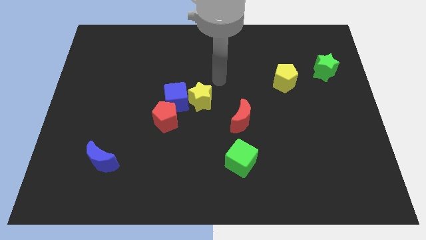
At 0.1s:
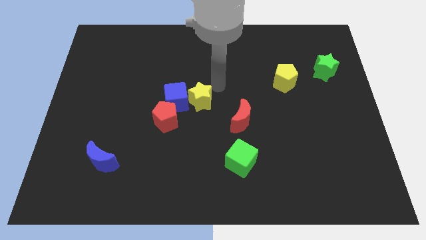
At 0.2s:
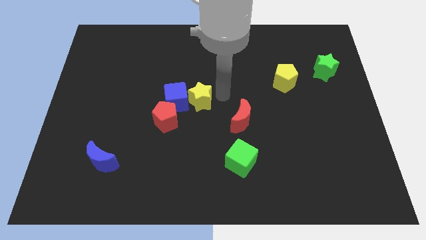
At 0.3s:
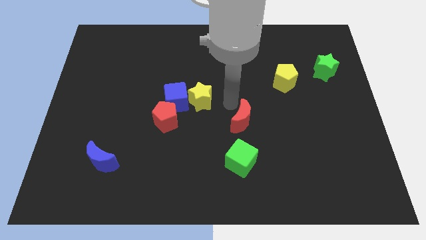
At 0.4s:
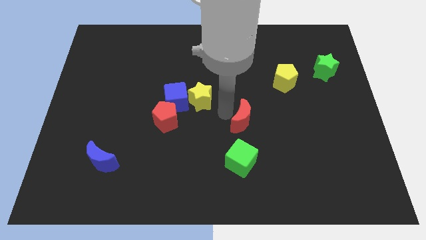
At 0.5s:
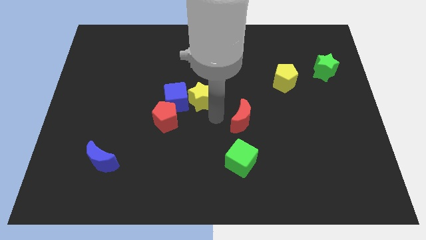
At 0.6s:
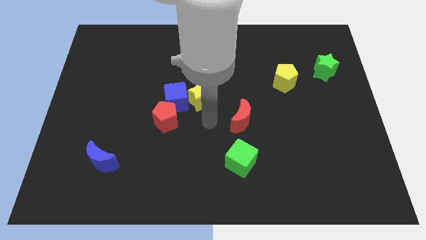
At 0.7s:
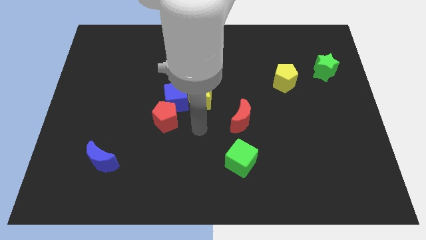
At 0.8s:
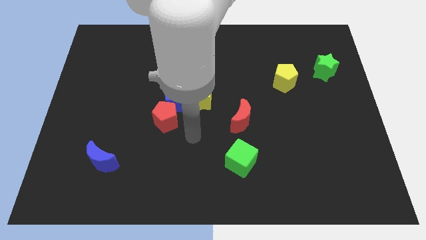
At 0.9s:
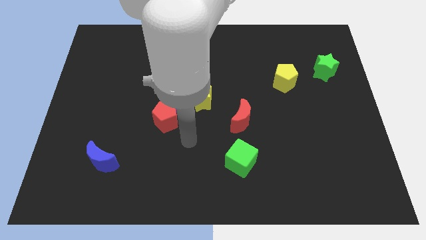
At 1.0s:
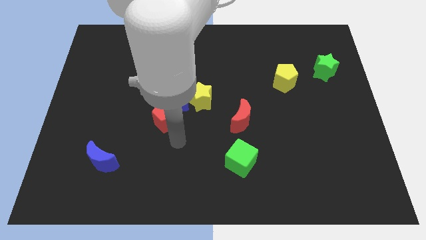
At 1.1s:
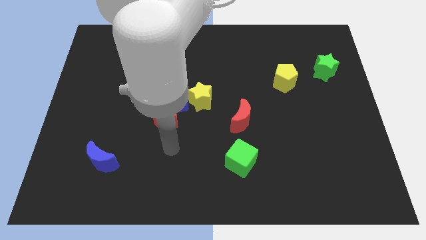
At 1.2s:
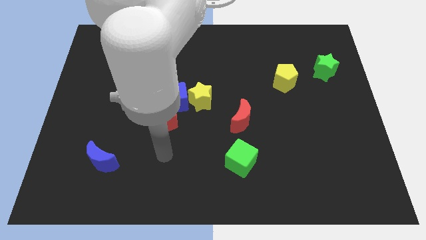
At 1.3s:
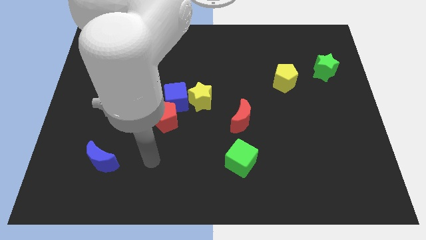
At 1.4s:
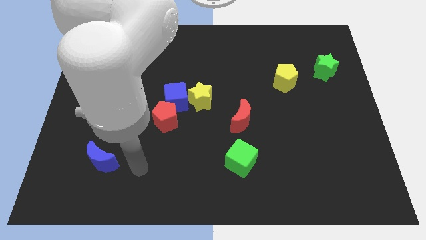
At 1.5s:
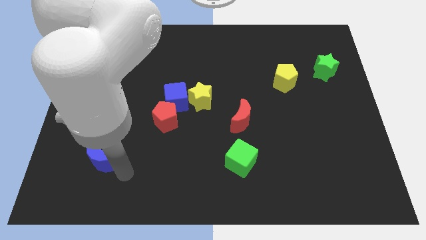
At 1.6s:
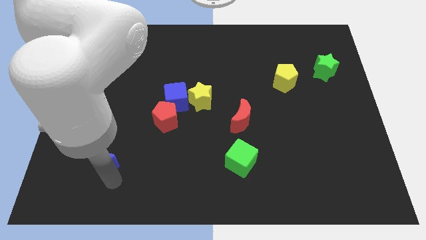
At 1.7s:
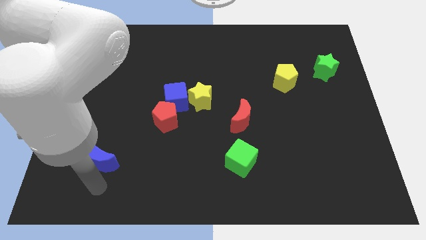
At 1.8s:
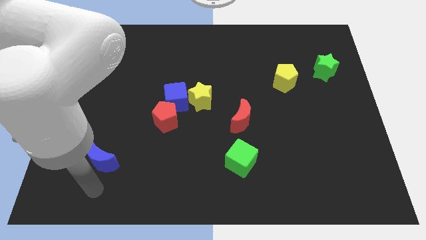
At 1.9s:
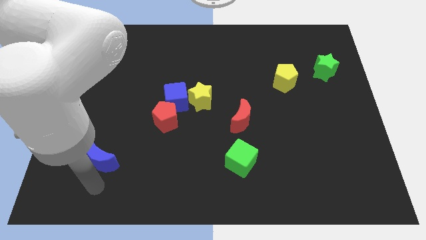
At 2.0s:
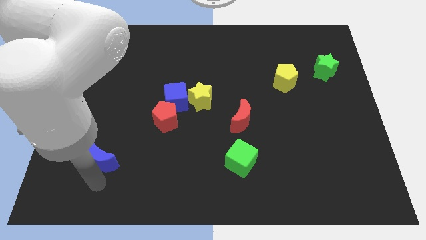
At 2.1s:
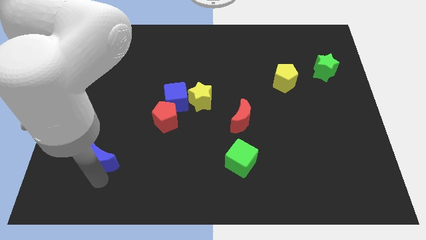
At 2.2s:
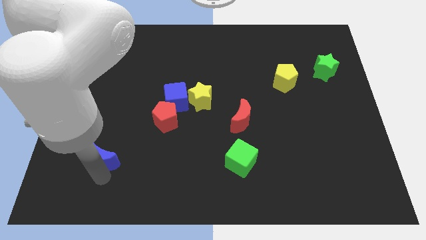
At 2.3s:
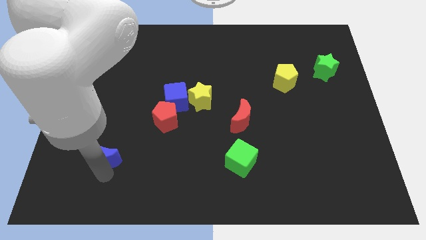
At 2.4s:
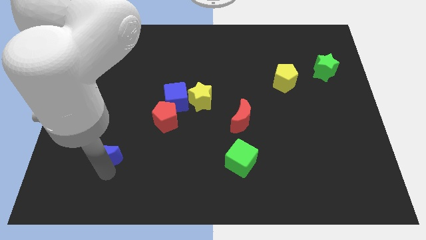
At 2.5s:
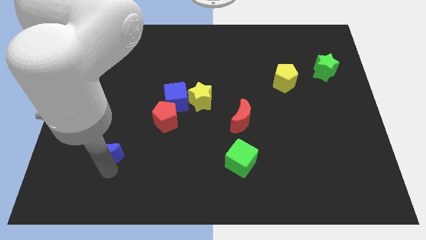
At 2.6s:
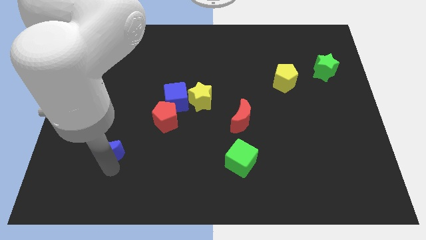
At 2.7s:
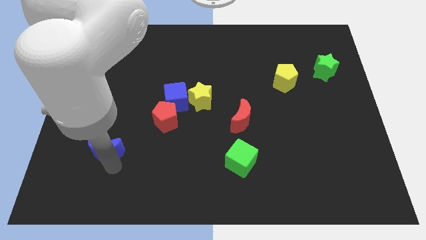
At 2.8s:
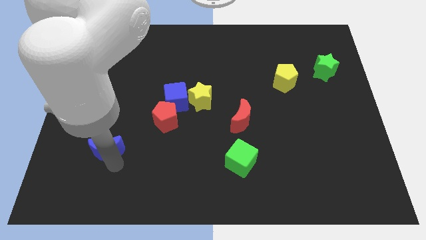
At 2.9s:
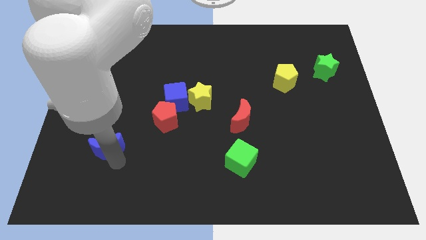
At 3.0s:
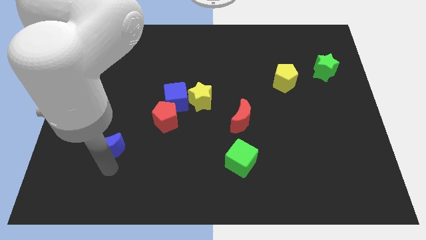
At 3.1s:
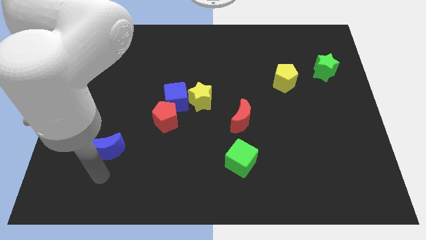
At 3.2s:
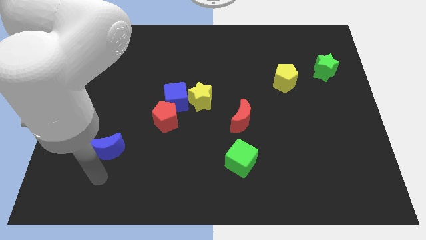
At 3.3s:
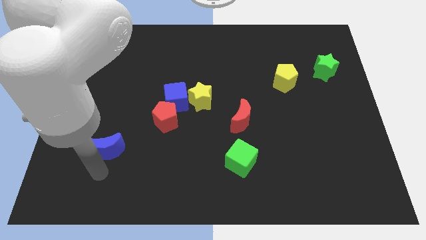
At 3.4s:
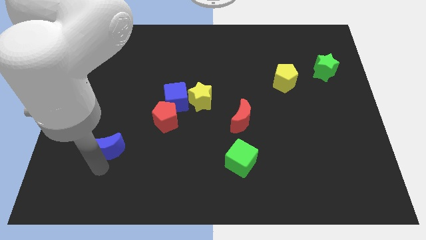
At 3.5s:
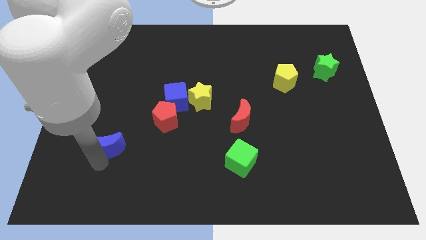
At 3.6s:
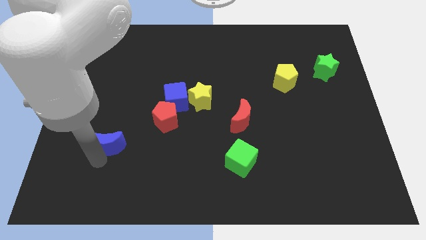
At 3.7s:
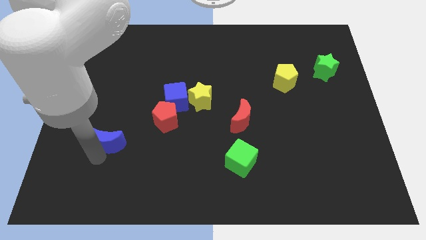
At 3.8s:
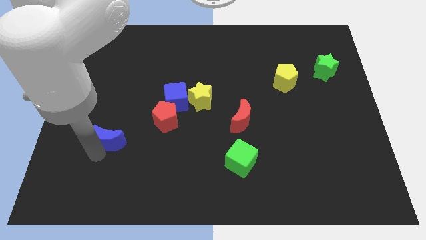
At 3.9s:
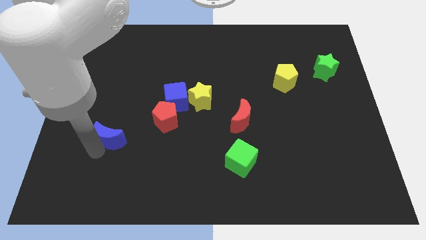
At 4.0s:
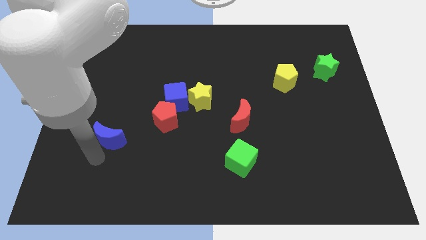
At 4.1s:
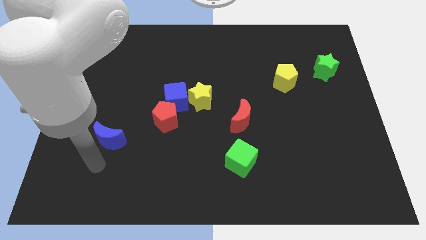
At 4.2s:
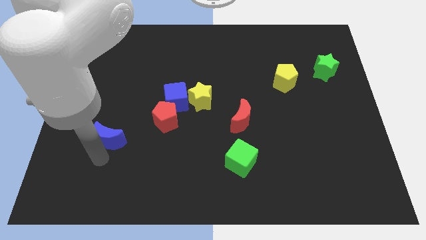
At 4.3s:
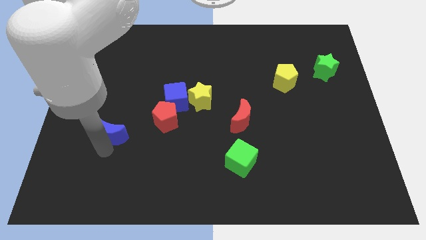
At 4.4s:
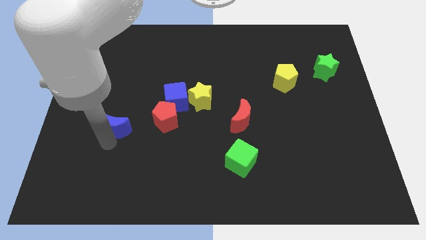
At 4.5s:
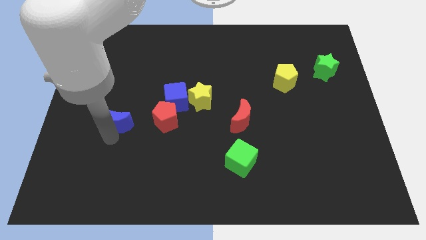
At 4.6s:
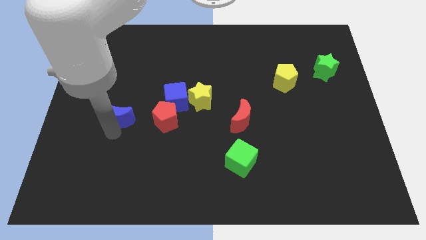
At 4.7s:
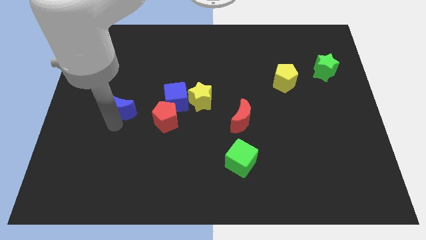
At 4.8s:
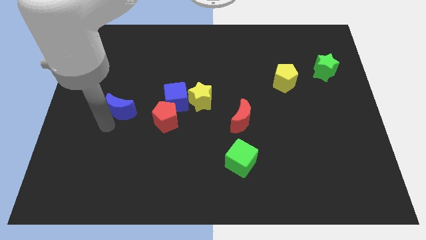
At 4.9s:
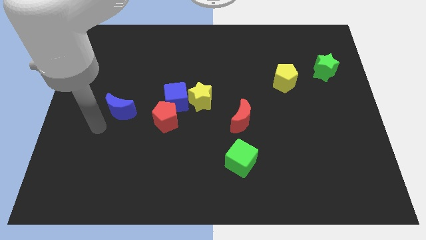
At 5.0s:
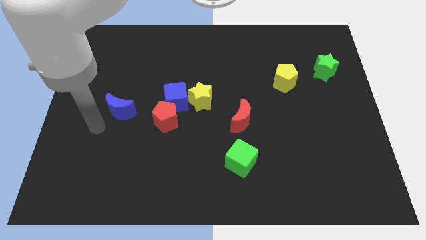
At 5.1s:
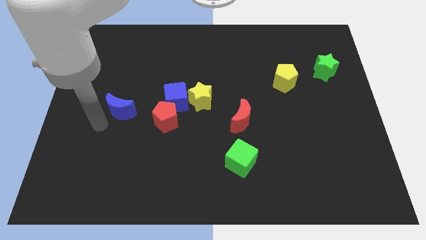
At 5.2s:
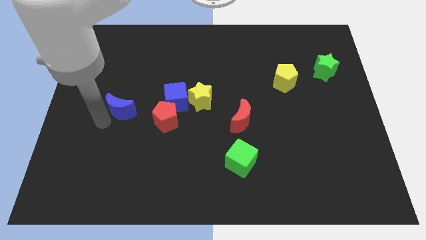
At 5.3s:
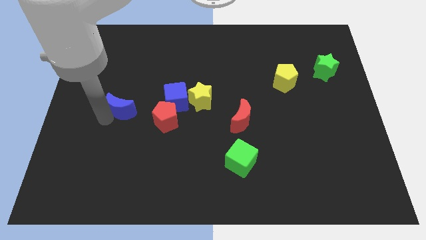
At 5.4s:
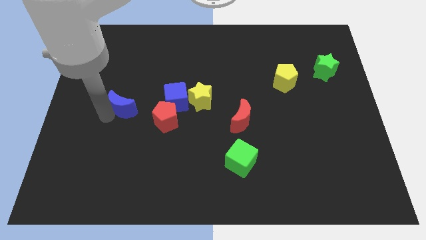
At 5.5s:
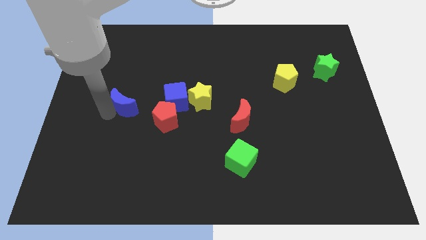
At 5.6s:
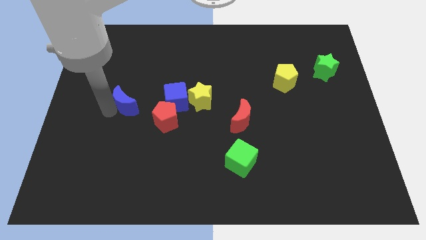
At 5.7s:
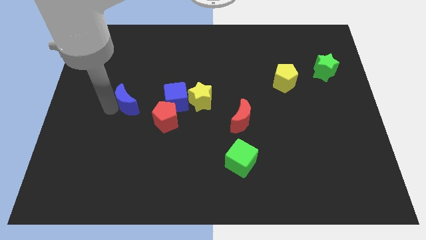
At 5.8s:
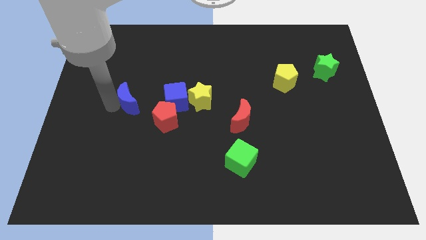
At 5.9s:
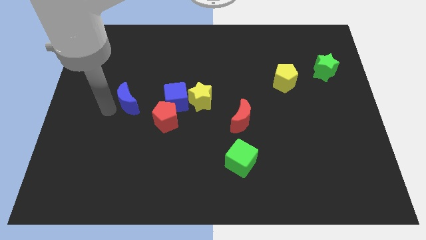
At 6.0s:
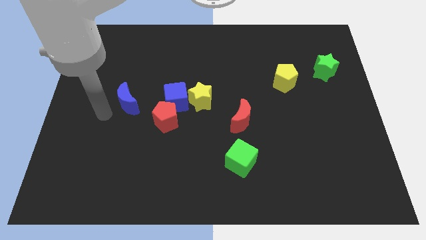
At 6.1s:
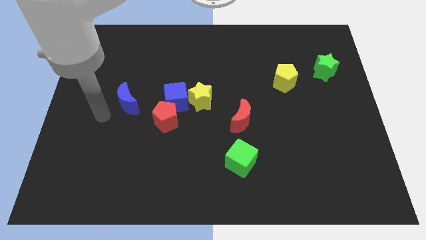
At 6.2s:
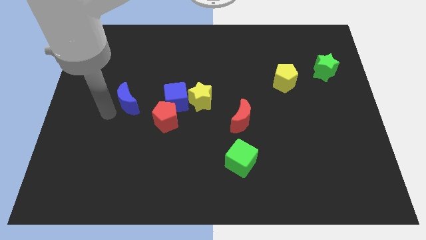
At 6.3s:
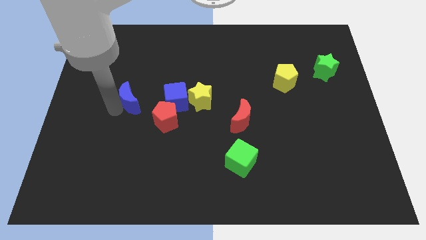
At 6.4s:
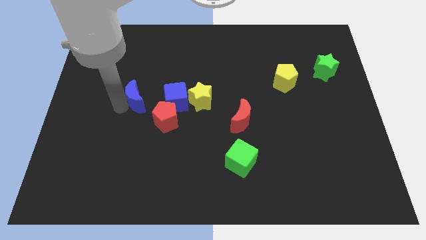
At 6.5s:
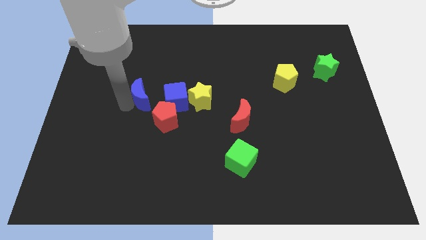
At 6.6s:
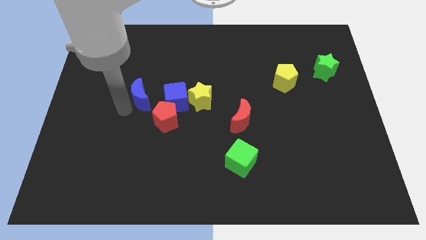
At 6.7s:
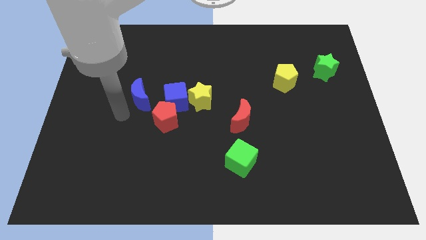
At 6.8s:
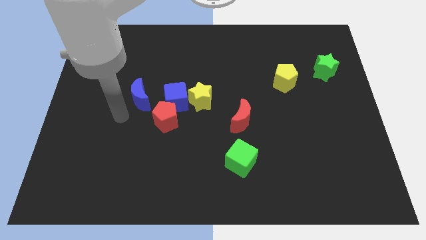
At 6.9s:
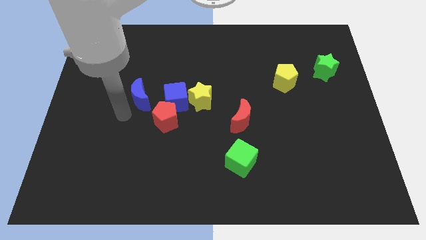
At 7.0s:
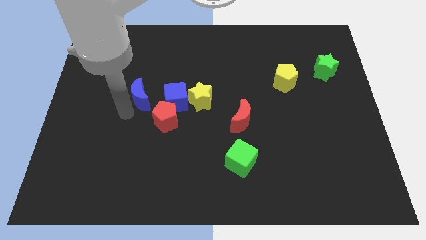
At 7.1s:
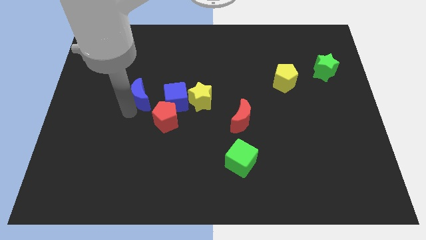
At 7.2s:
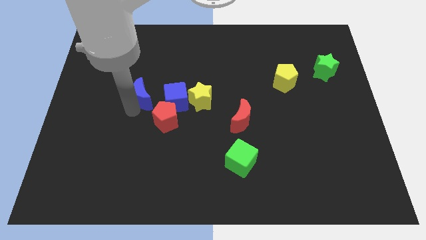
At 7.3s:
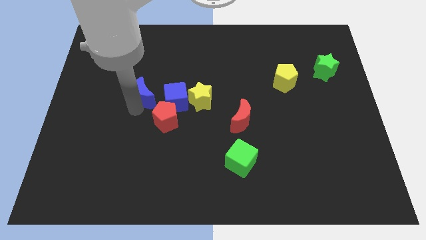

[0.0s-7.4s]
move the blue moon to the top left of the blue cube

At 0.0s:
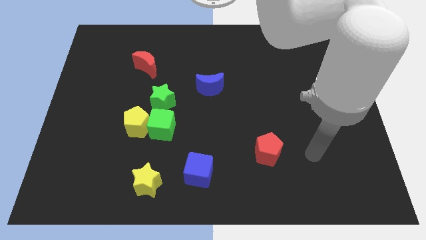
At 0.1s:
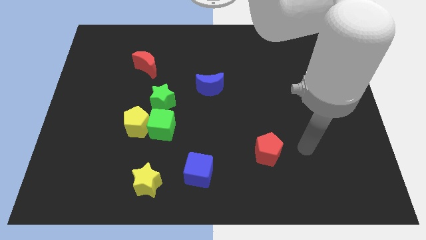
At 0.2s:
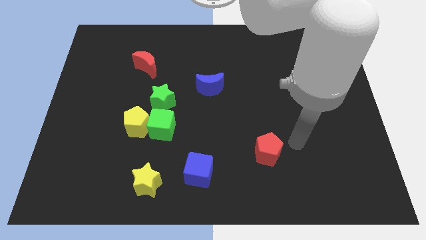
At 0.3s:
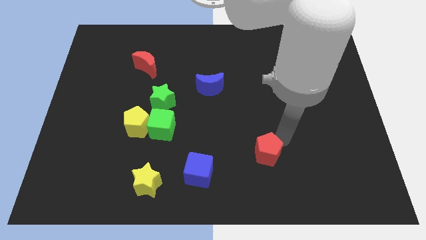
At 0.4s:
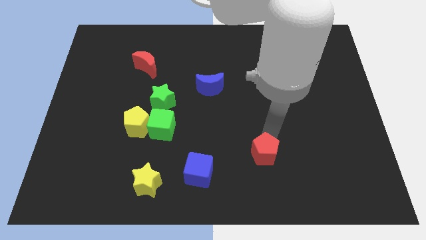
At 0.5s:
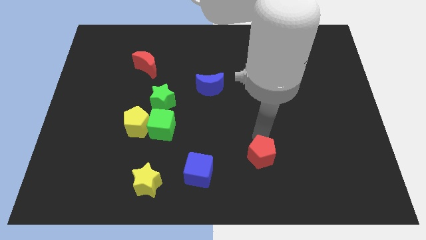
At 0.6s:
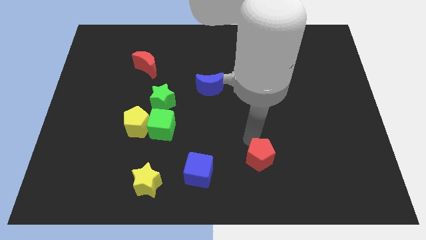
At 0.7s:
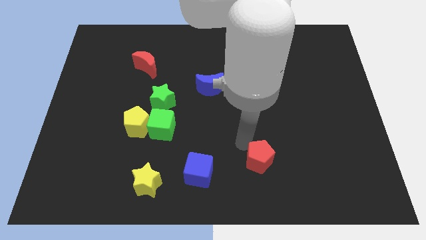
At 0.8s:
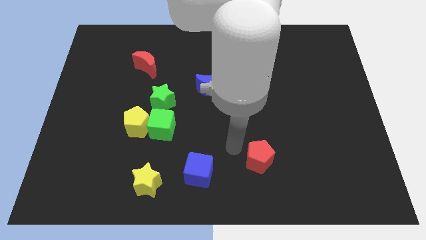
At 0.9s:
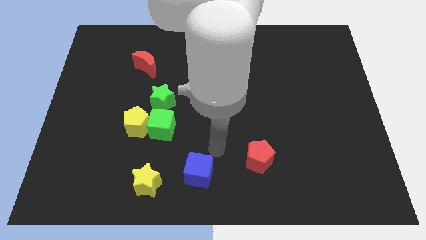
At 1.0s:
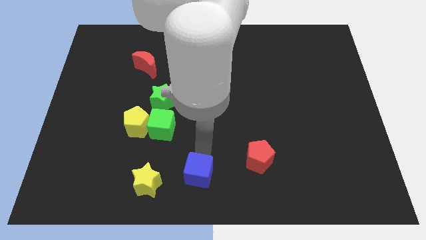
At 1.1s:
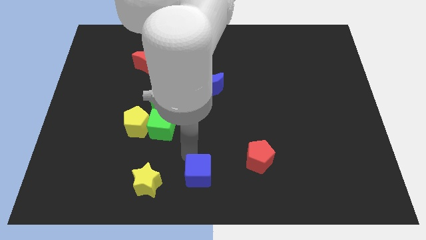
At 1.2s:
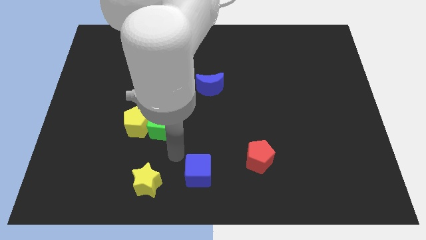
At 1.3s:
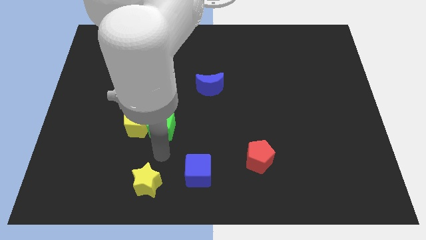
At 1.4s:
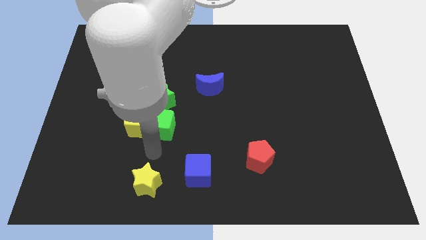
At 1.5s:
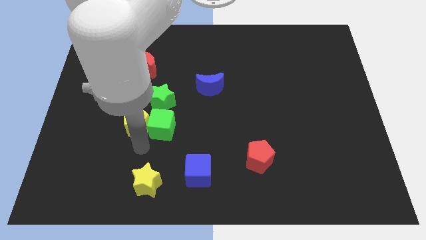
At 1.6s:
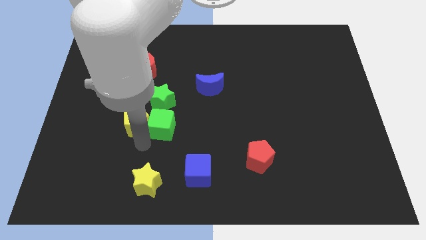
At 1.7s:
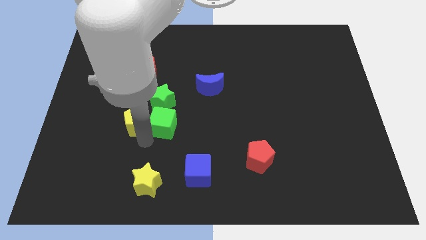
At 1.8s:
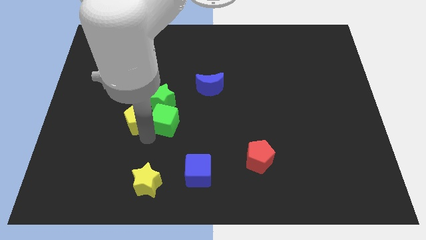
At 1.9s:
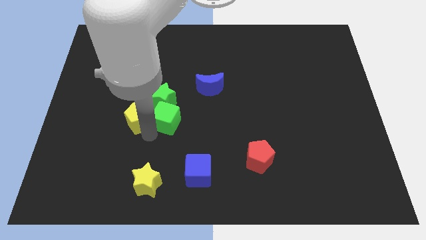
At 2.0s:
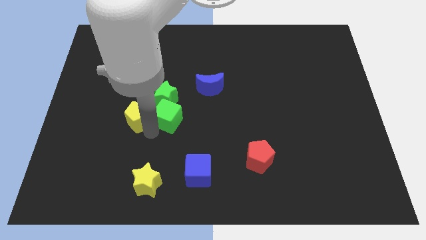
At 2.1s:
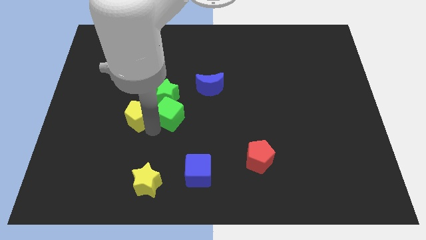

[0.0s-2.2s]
move the green cube diagonally down and to the left of the blue moon
